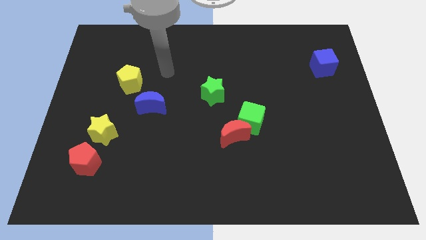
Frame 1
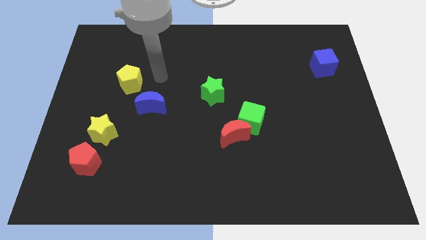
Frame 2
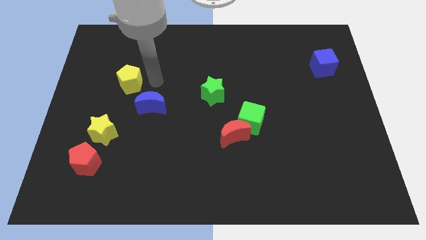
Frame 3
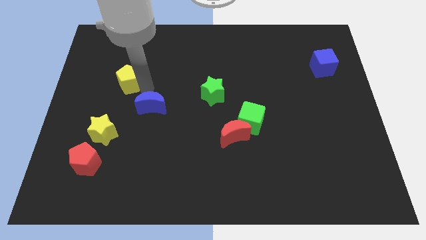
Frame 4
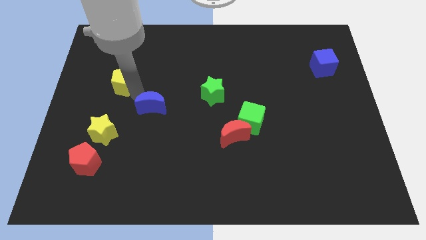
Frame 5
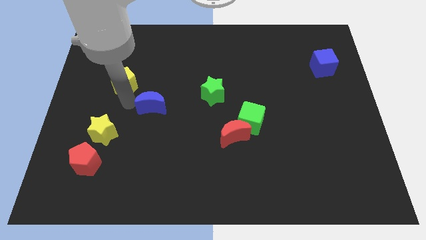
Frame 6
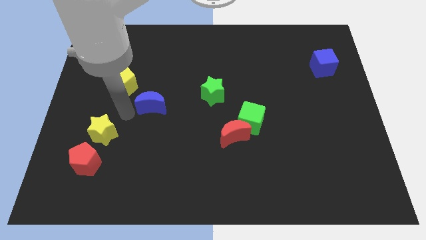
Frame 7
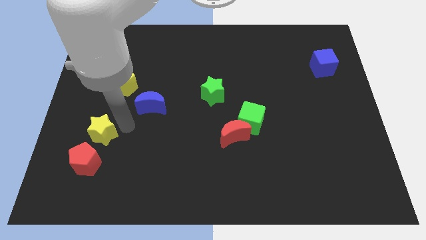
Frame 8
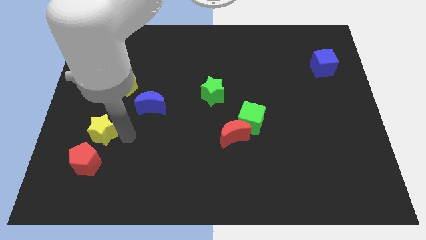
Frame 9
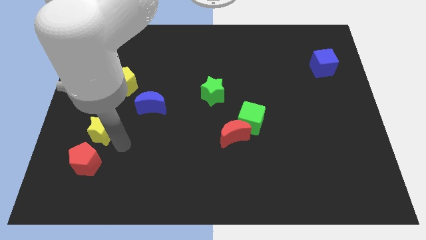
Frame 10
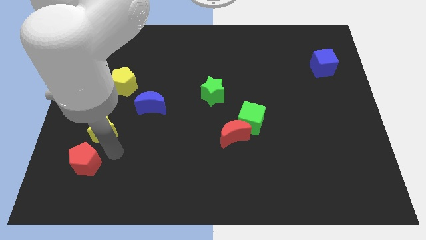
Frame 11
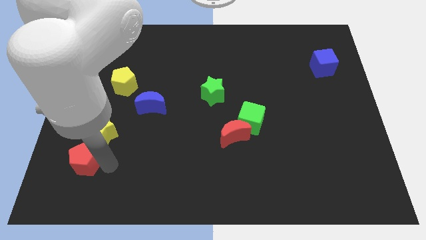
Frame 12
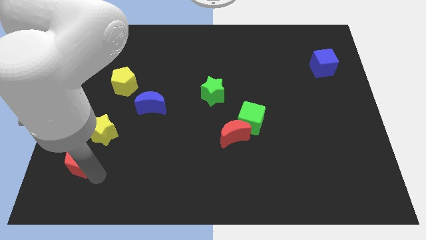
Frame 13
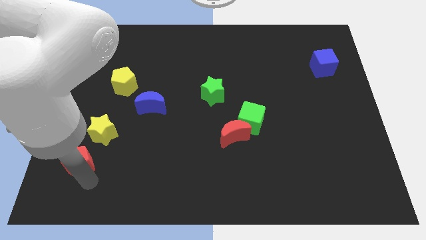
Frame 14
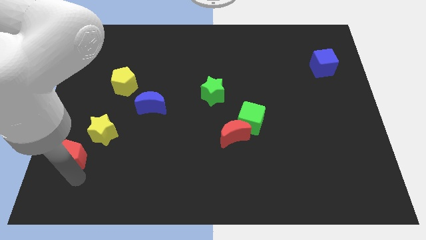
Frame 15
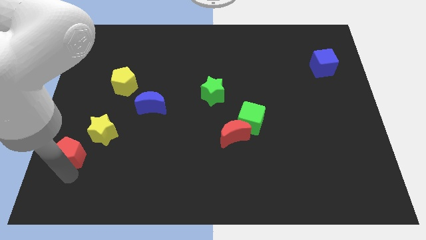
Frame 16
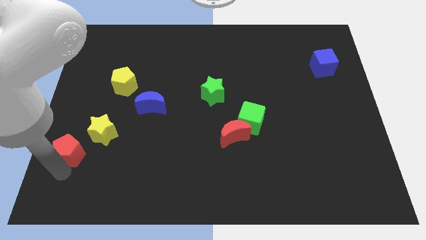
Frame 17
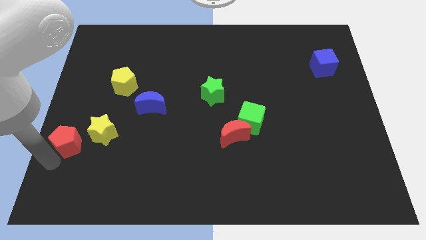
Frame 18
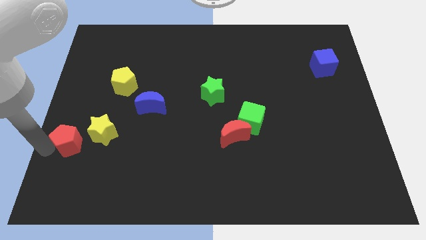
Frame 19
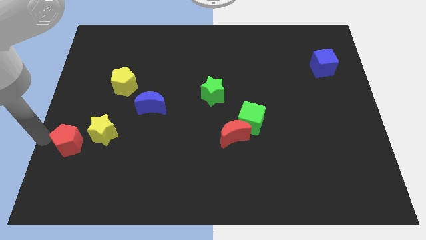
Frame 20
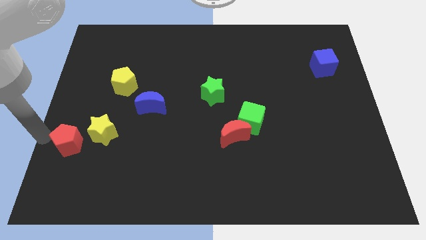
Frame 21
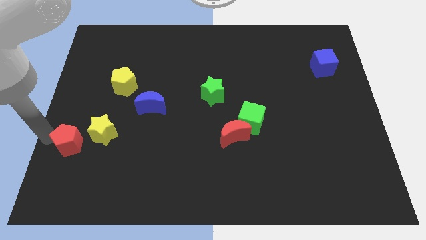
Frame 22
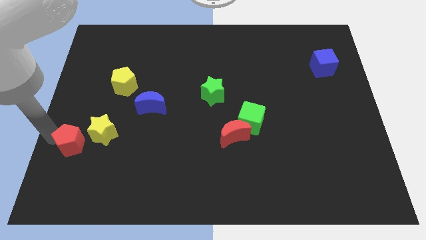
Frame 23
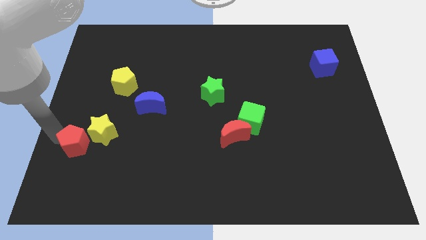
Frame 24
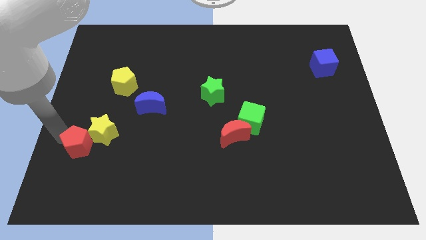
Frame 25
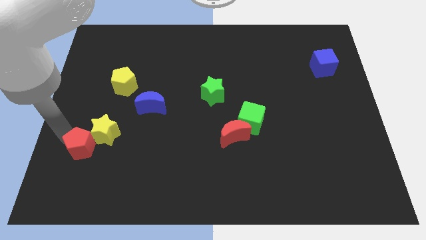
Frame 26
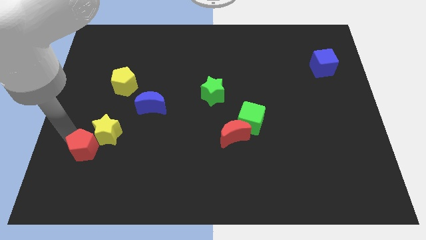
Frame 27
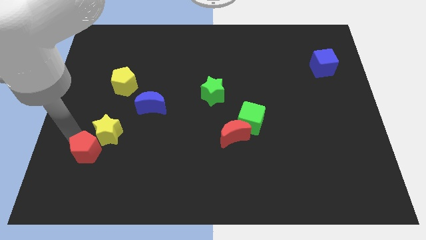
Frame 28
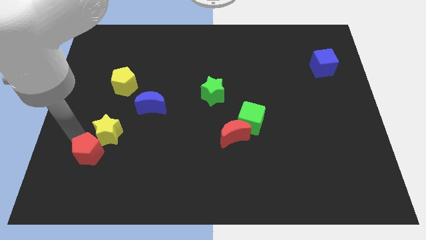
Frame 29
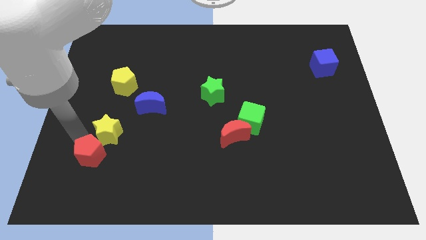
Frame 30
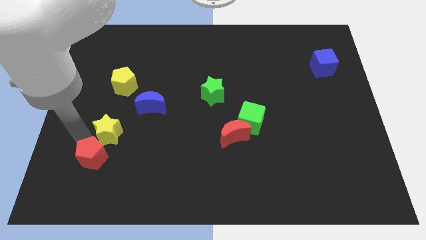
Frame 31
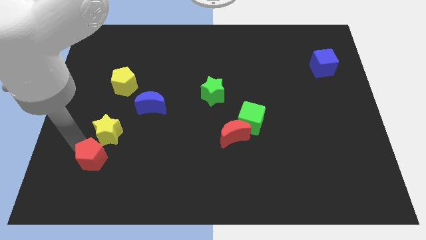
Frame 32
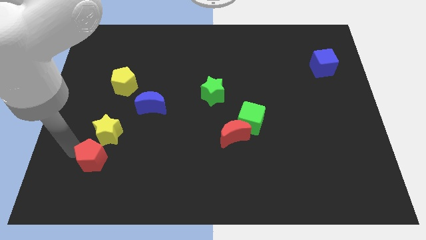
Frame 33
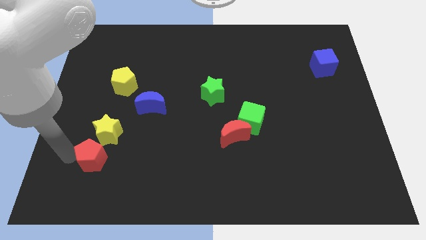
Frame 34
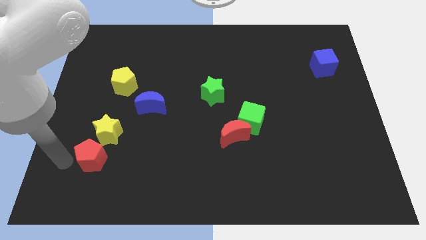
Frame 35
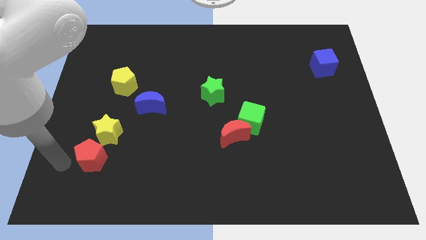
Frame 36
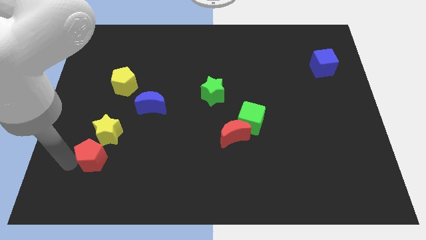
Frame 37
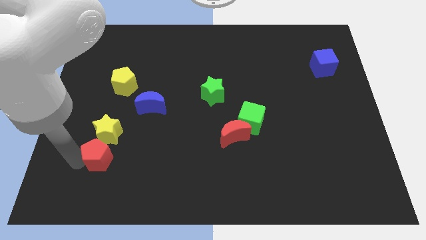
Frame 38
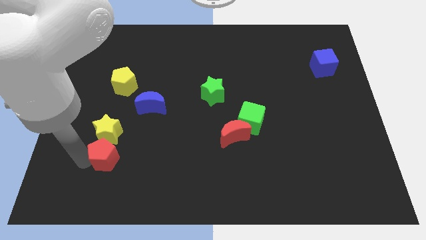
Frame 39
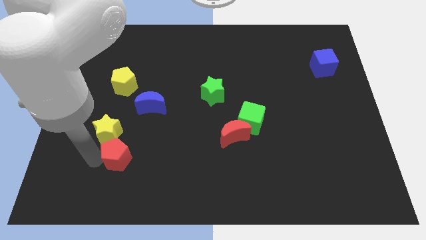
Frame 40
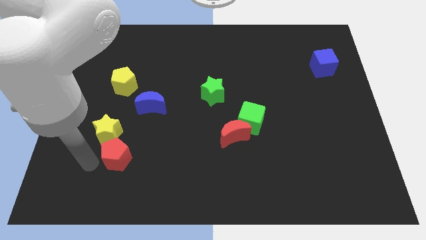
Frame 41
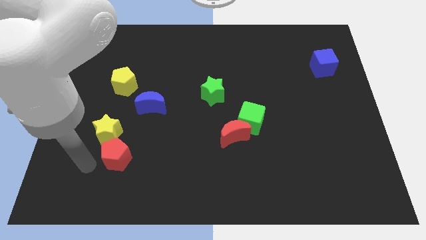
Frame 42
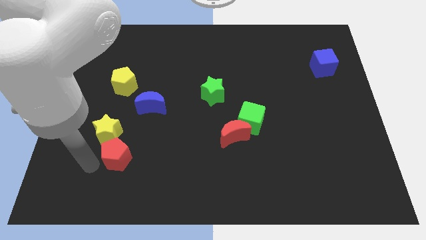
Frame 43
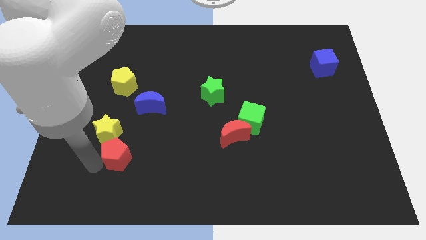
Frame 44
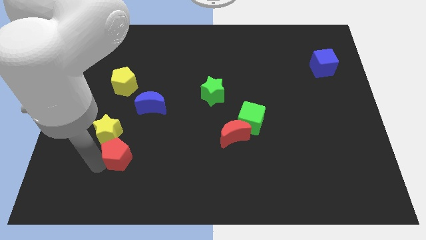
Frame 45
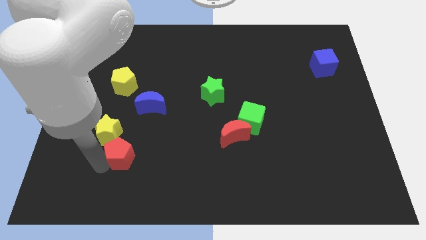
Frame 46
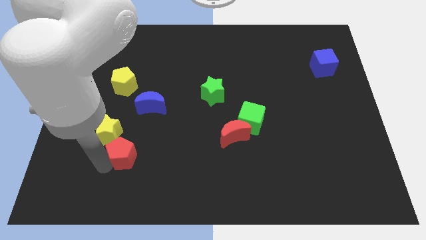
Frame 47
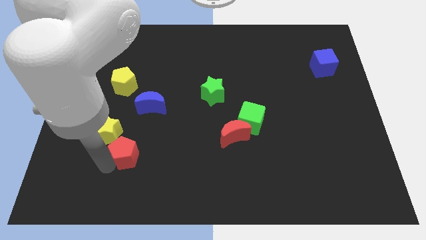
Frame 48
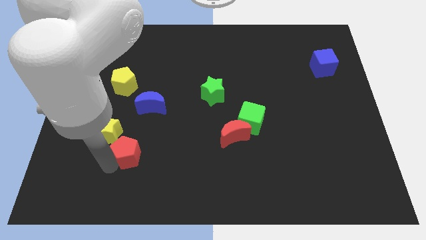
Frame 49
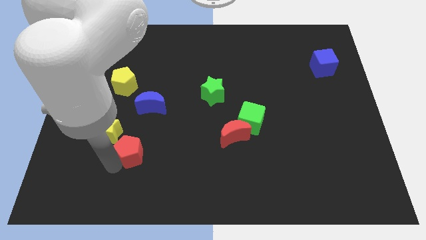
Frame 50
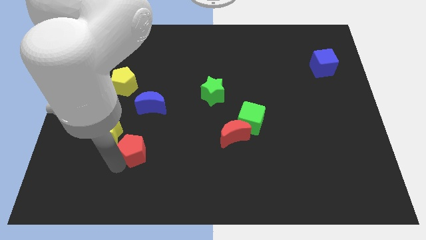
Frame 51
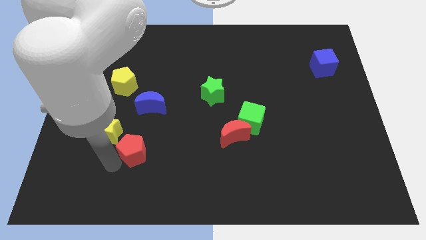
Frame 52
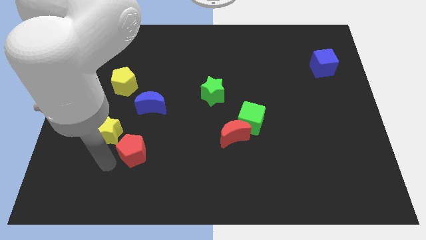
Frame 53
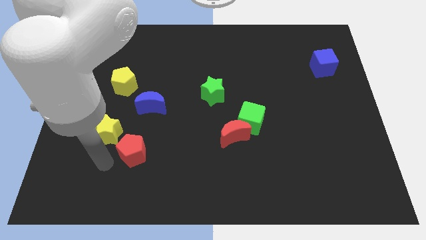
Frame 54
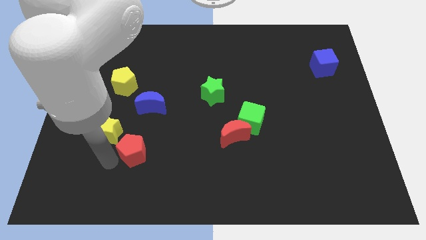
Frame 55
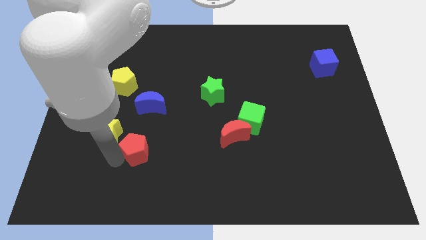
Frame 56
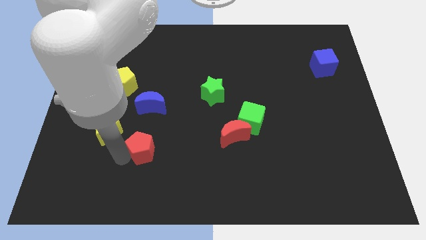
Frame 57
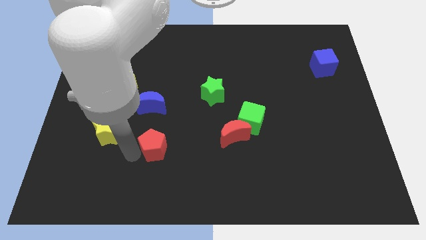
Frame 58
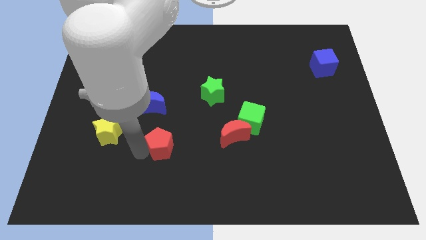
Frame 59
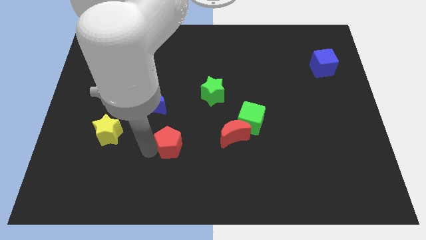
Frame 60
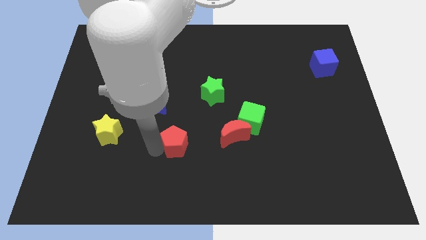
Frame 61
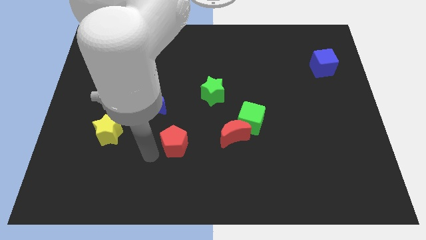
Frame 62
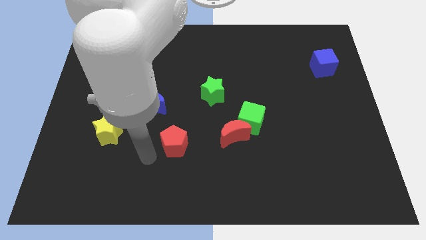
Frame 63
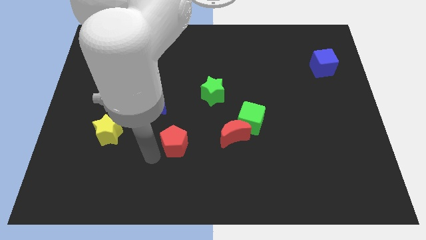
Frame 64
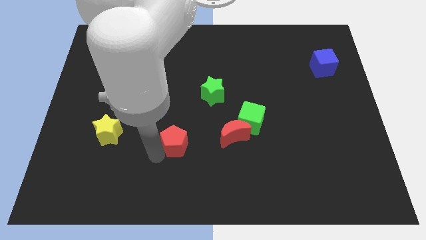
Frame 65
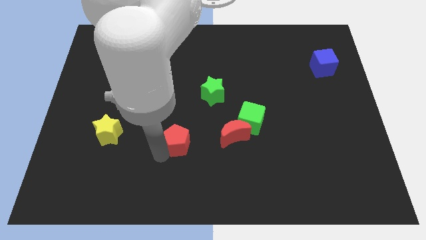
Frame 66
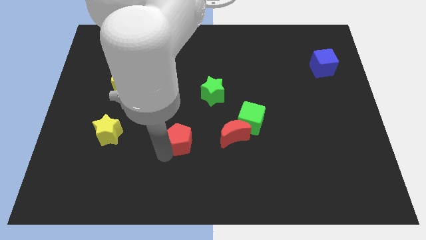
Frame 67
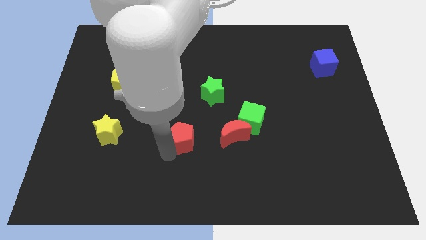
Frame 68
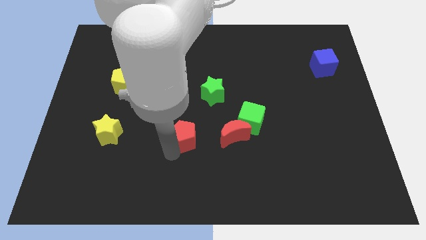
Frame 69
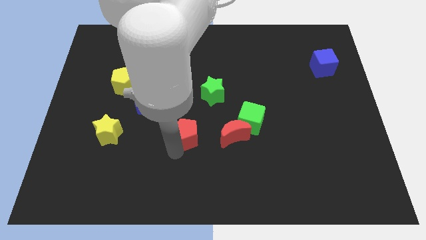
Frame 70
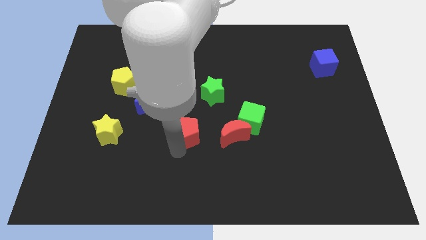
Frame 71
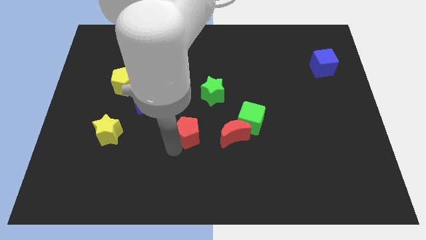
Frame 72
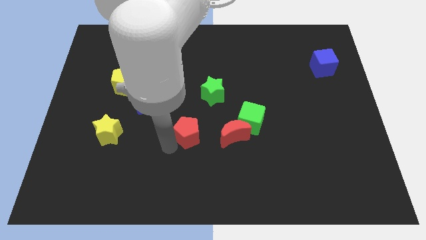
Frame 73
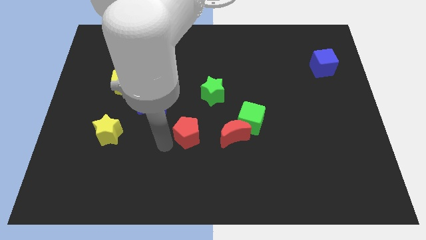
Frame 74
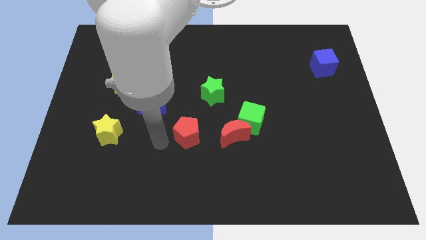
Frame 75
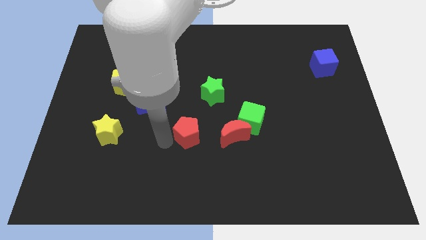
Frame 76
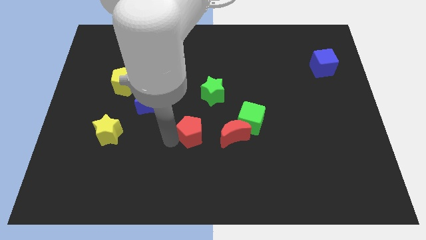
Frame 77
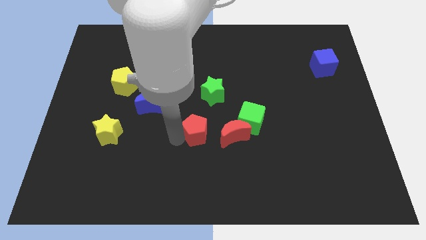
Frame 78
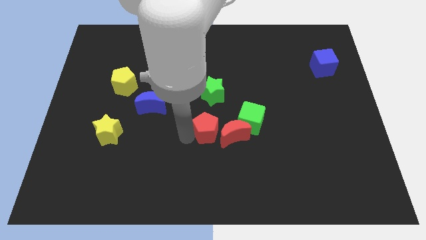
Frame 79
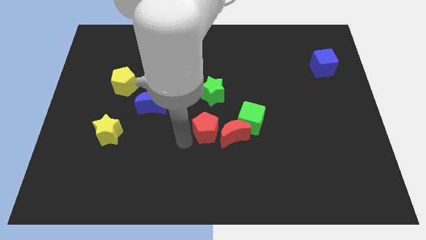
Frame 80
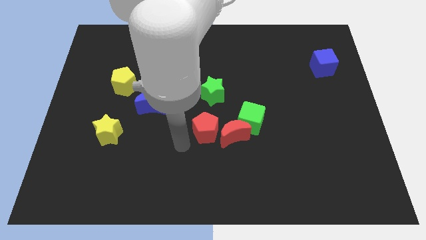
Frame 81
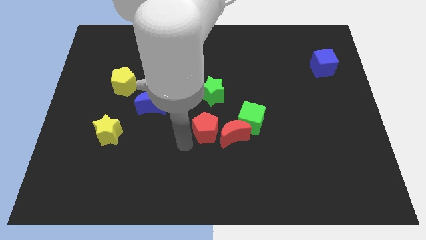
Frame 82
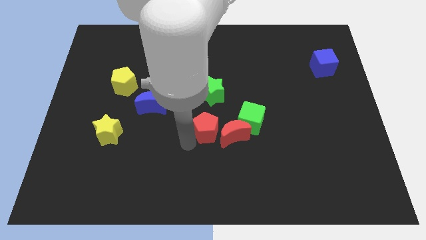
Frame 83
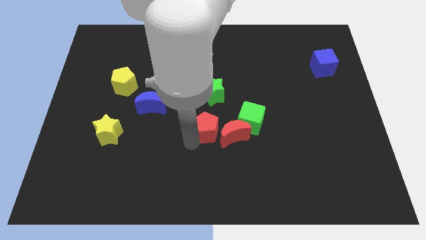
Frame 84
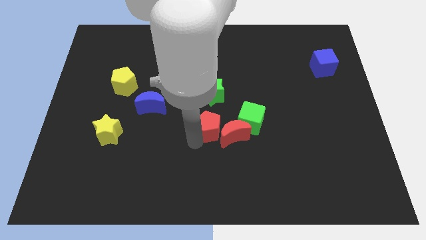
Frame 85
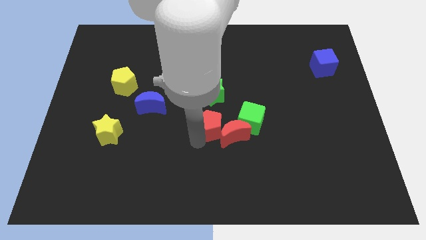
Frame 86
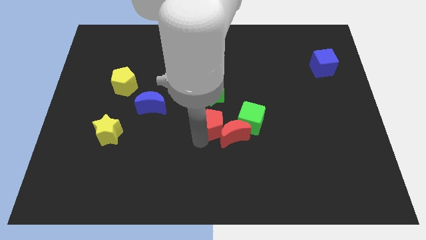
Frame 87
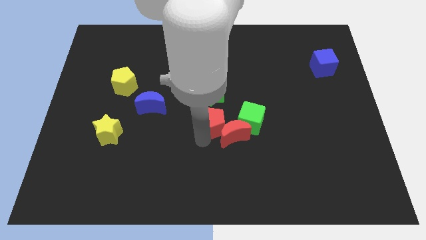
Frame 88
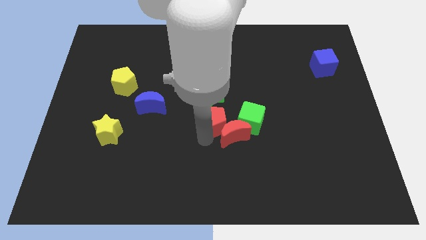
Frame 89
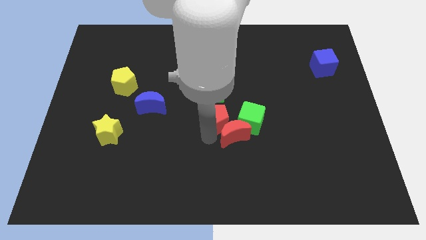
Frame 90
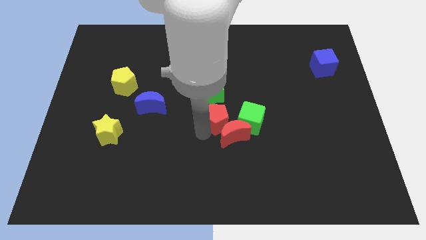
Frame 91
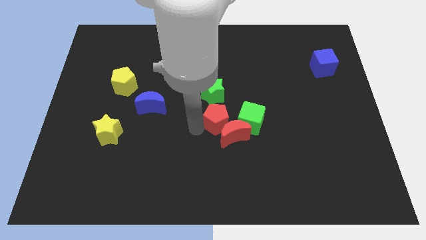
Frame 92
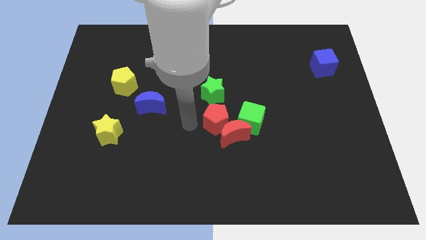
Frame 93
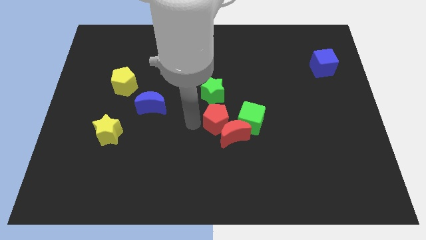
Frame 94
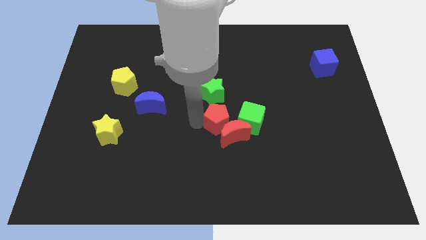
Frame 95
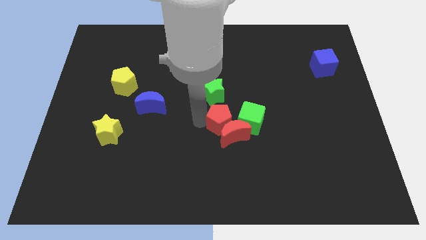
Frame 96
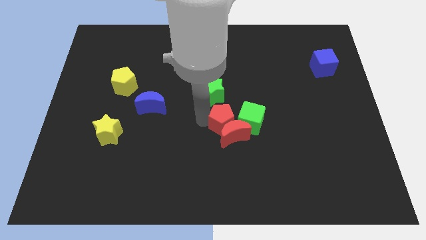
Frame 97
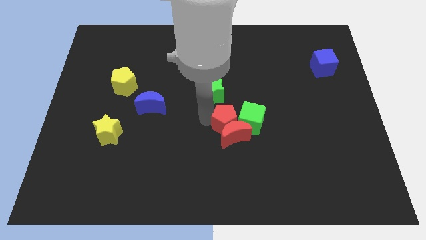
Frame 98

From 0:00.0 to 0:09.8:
slide the red pentagon next to the green cube
